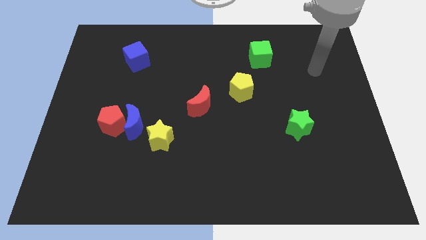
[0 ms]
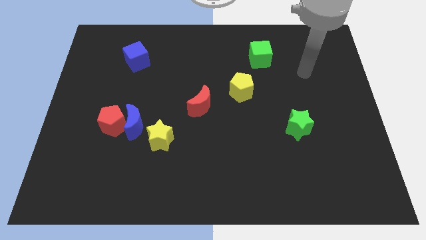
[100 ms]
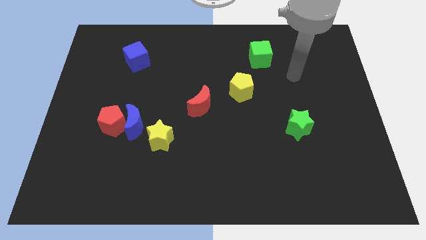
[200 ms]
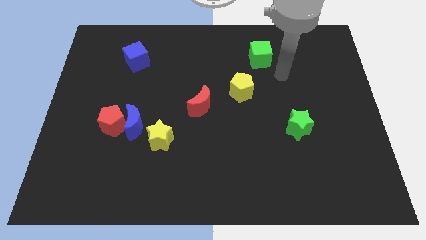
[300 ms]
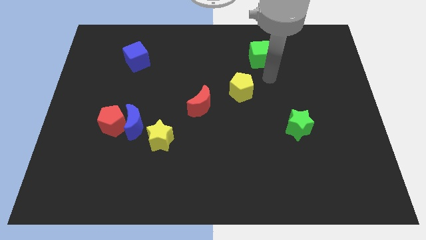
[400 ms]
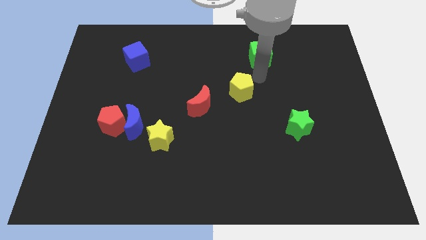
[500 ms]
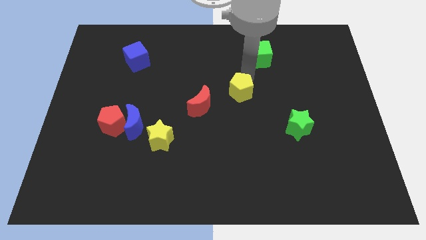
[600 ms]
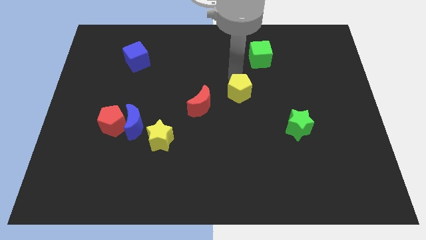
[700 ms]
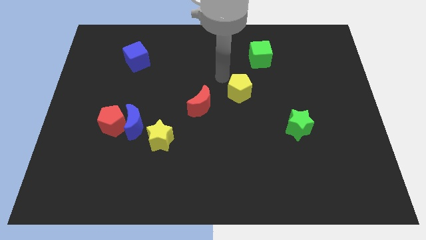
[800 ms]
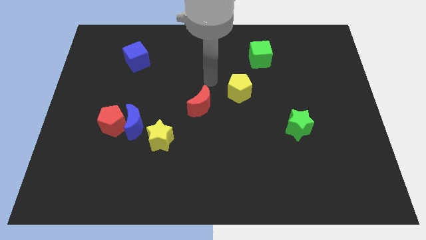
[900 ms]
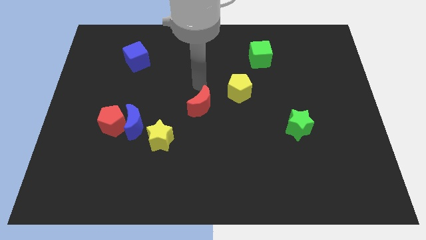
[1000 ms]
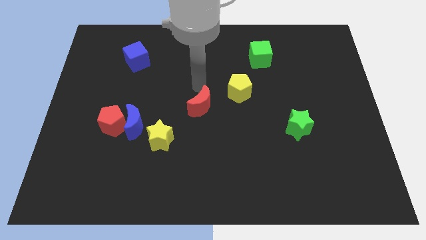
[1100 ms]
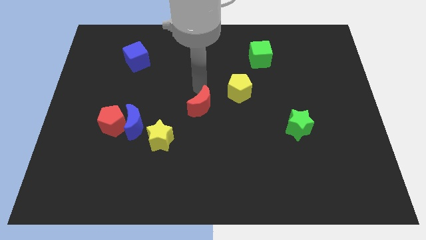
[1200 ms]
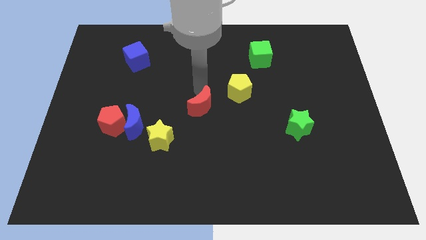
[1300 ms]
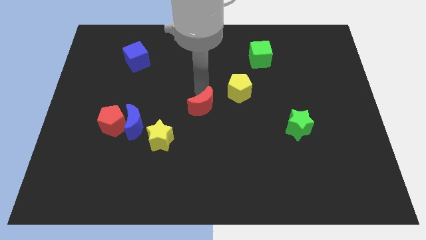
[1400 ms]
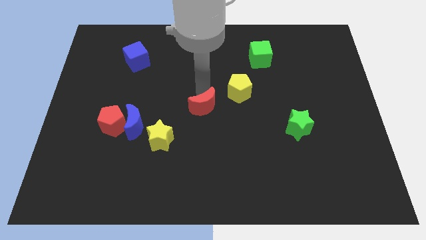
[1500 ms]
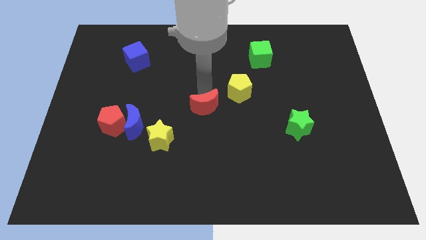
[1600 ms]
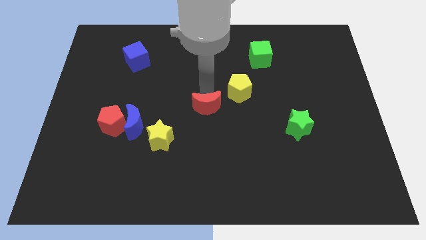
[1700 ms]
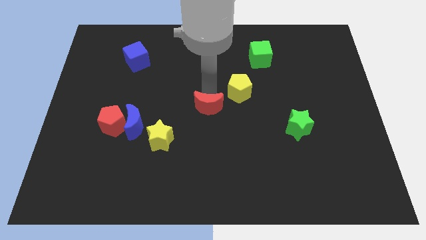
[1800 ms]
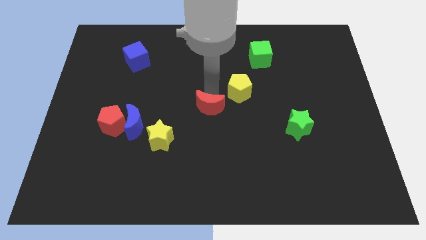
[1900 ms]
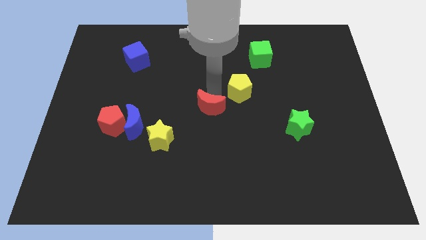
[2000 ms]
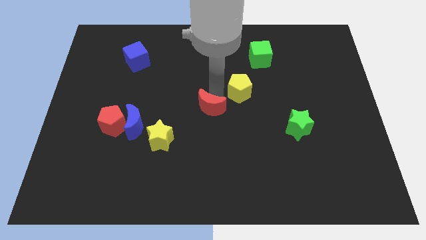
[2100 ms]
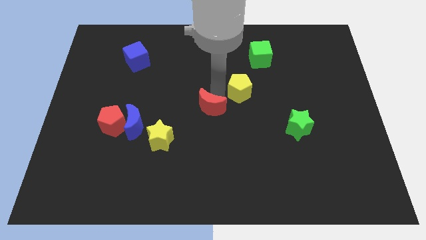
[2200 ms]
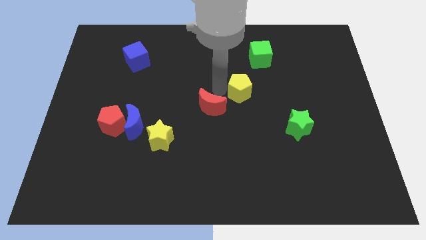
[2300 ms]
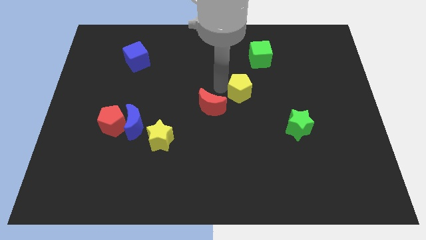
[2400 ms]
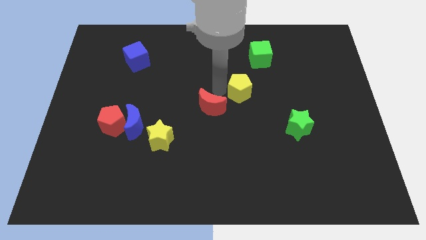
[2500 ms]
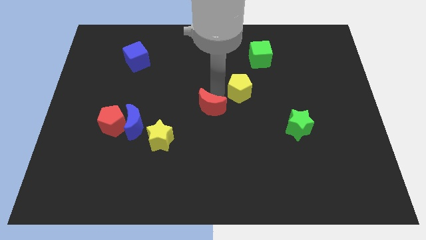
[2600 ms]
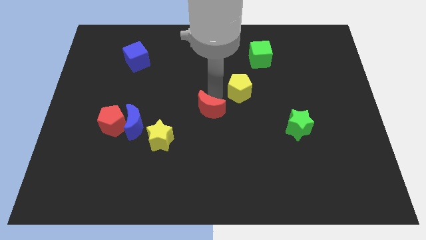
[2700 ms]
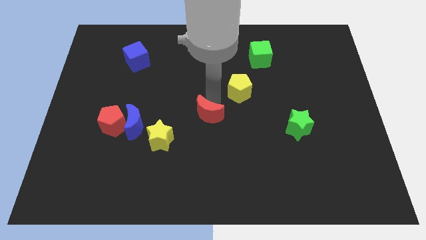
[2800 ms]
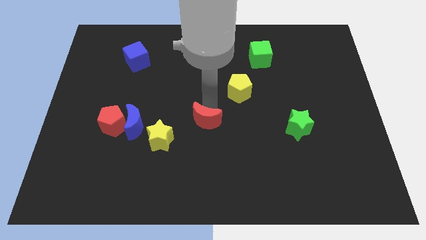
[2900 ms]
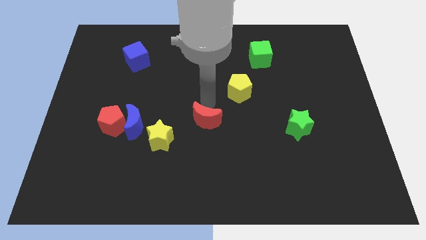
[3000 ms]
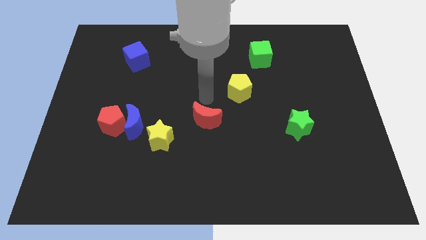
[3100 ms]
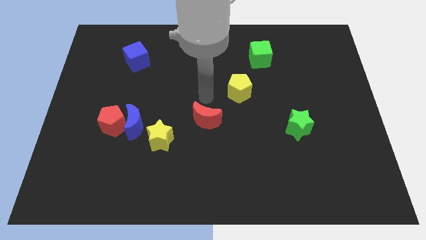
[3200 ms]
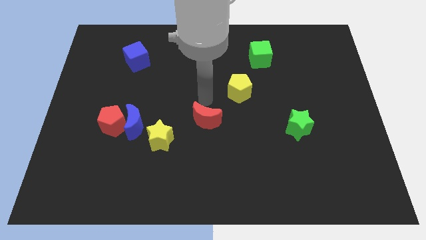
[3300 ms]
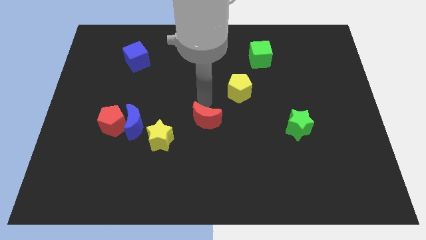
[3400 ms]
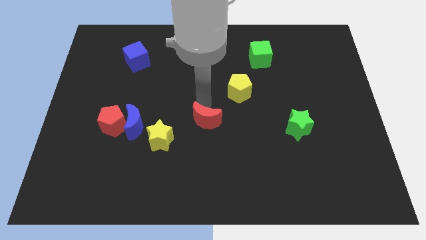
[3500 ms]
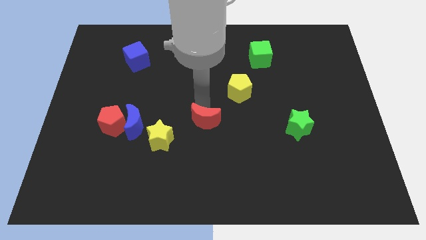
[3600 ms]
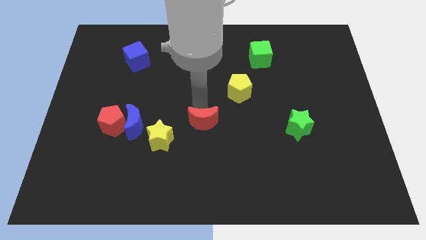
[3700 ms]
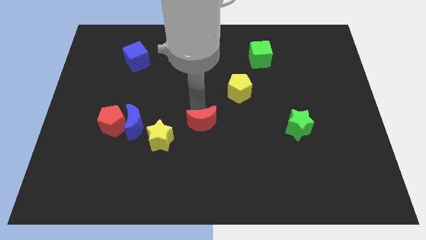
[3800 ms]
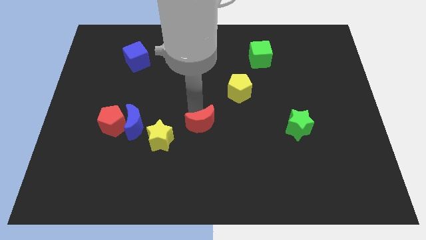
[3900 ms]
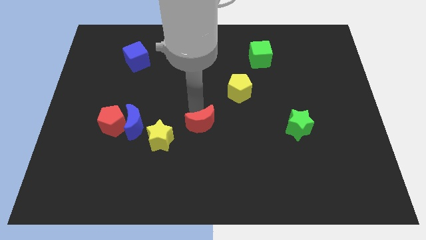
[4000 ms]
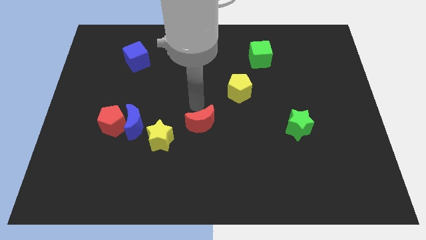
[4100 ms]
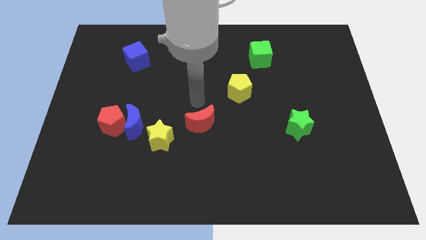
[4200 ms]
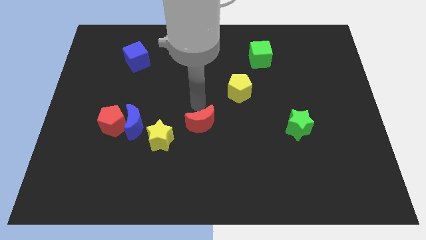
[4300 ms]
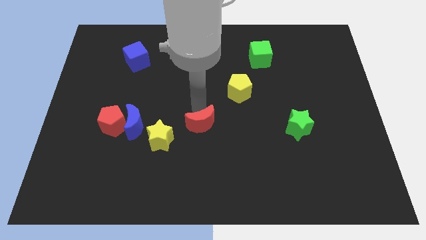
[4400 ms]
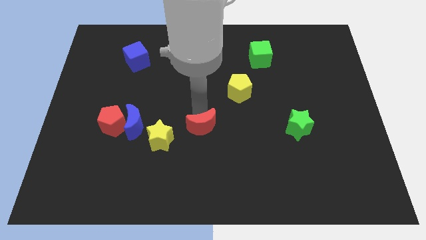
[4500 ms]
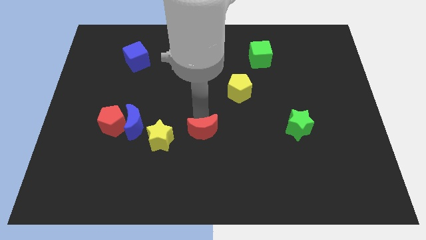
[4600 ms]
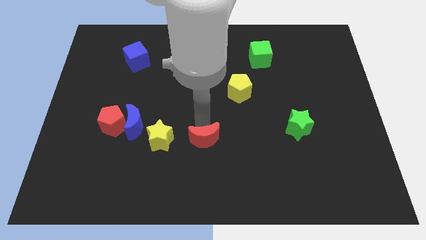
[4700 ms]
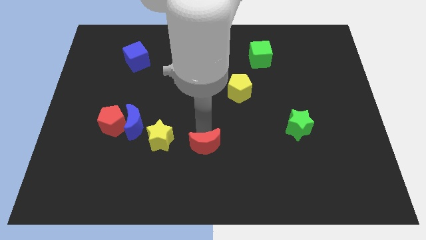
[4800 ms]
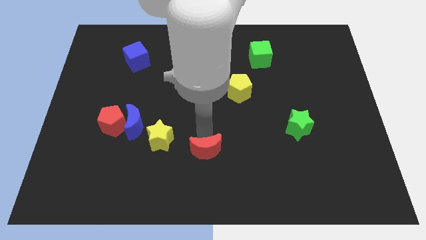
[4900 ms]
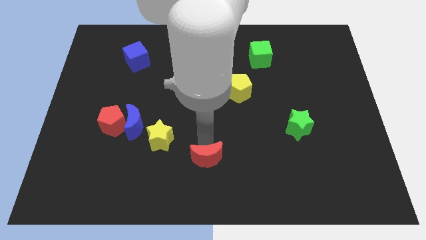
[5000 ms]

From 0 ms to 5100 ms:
push the red moon to the bottom

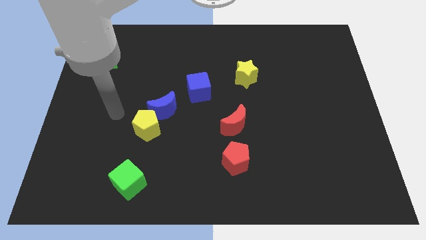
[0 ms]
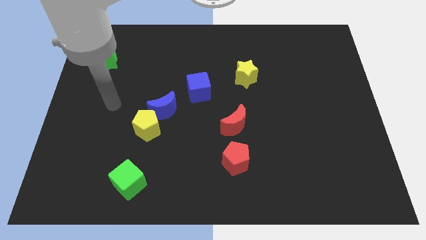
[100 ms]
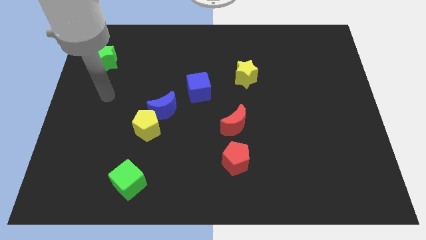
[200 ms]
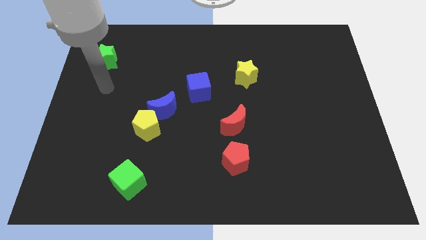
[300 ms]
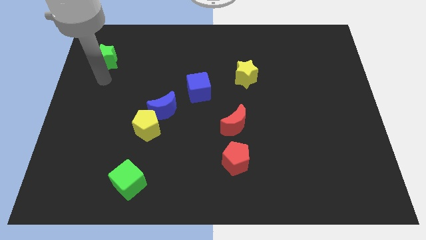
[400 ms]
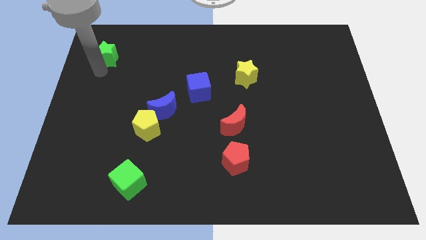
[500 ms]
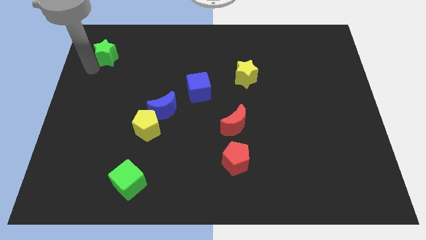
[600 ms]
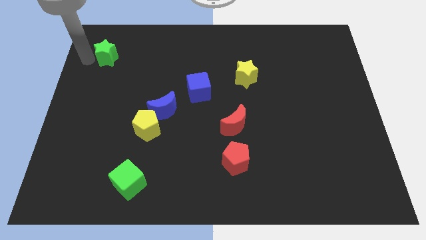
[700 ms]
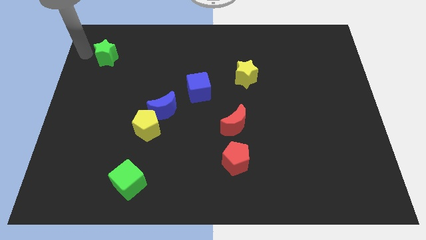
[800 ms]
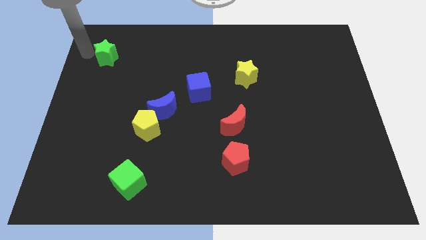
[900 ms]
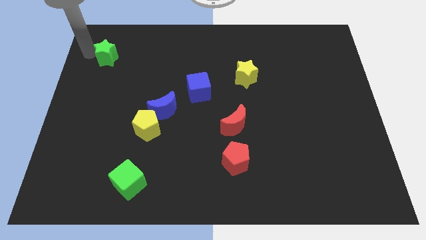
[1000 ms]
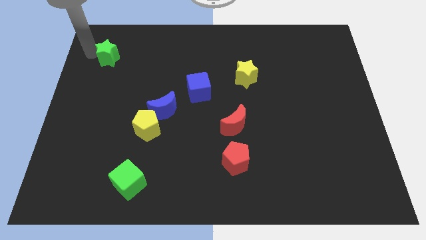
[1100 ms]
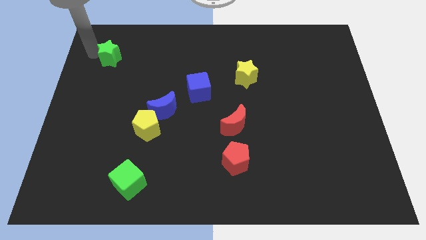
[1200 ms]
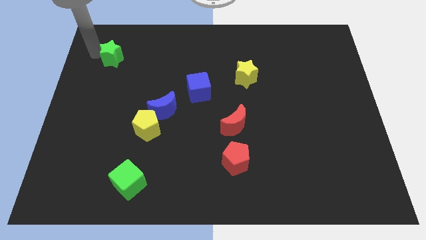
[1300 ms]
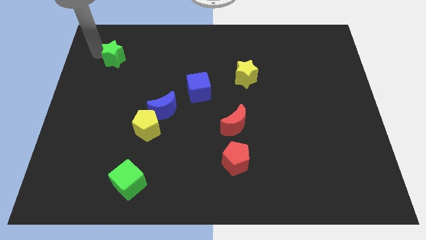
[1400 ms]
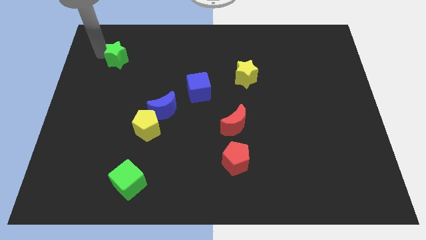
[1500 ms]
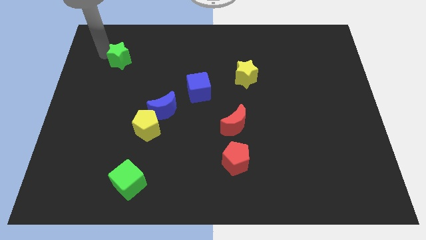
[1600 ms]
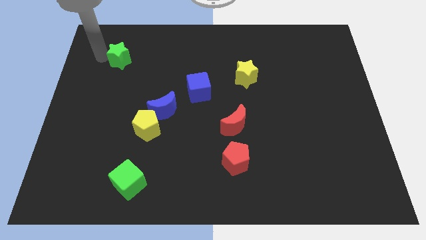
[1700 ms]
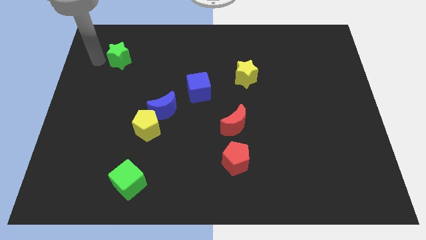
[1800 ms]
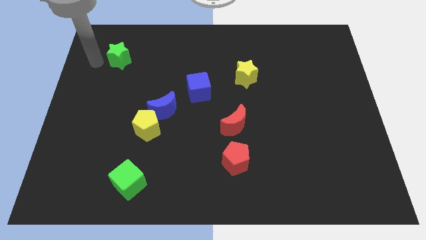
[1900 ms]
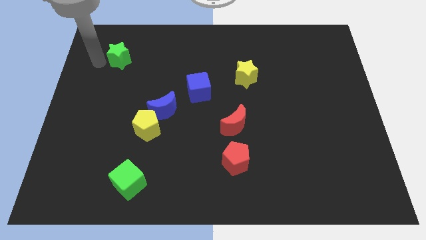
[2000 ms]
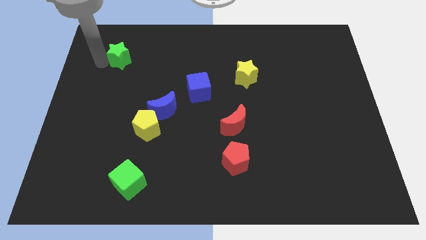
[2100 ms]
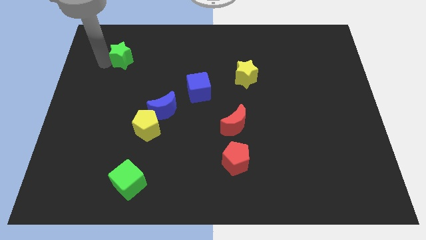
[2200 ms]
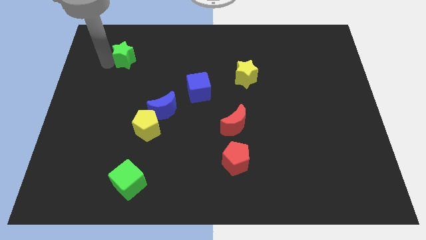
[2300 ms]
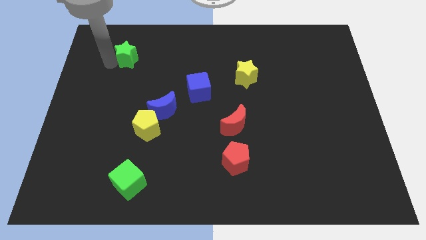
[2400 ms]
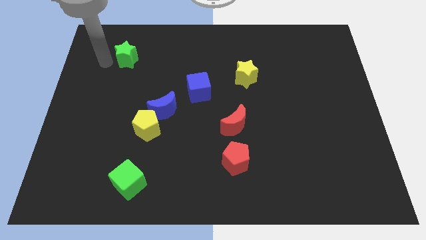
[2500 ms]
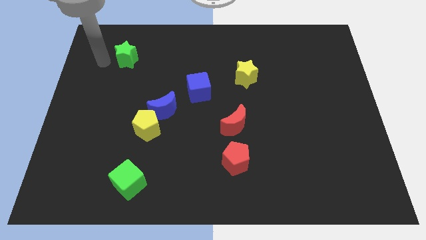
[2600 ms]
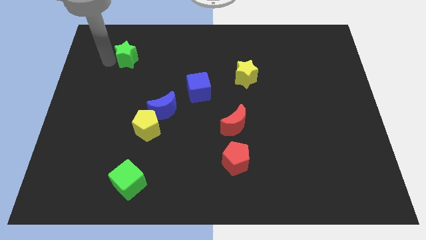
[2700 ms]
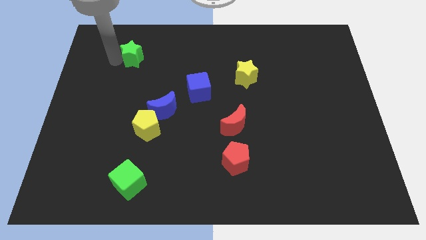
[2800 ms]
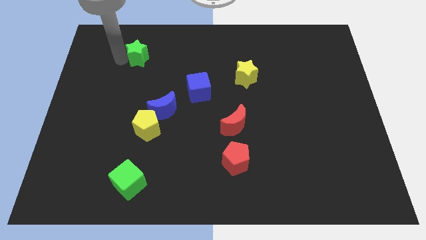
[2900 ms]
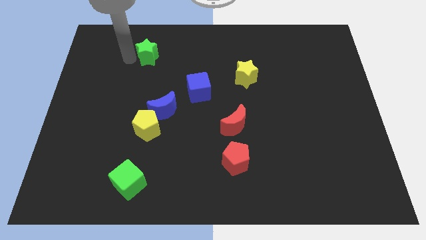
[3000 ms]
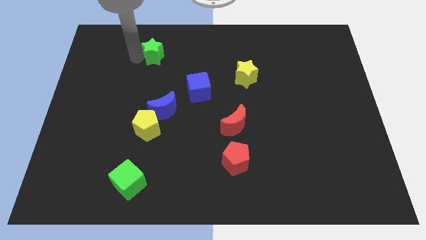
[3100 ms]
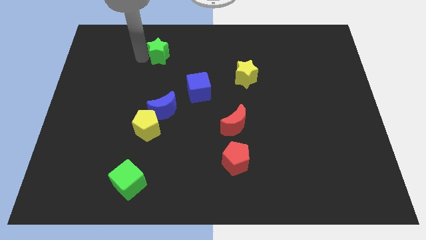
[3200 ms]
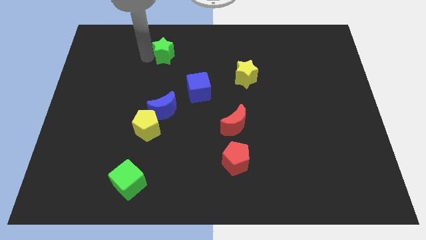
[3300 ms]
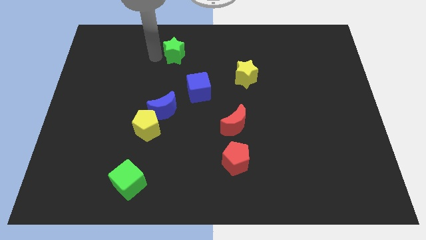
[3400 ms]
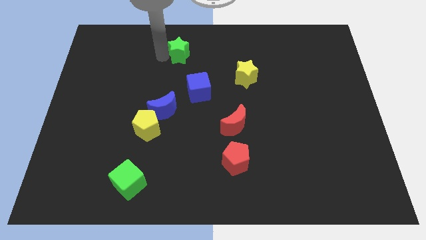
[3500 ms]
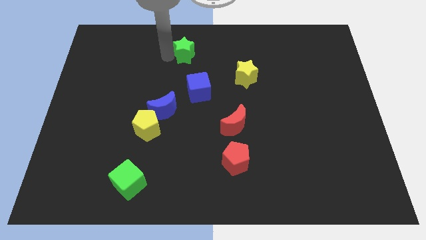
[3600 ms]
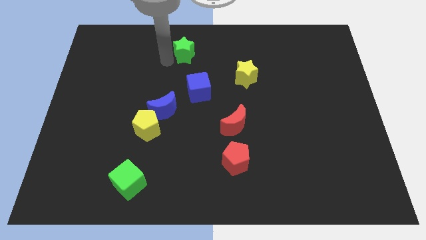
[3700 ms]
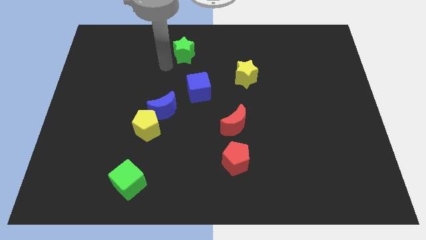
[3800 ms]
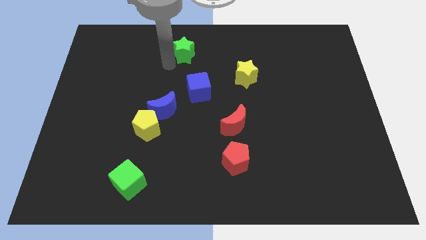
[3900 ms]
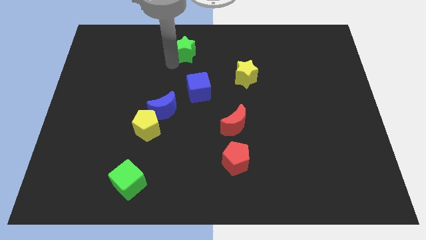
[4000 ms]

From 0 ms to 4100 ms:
put the green star to the top
